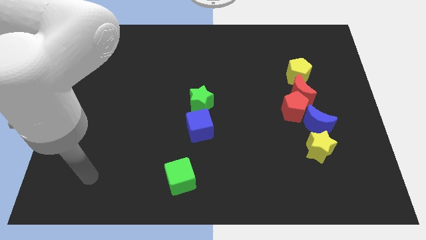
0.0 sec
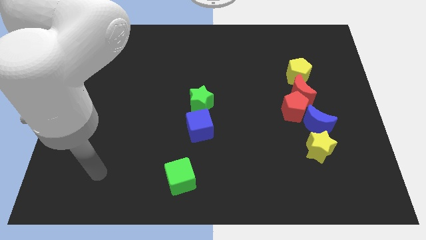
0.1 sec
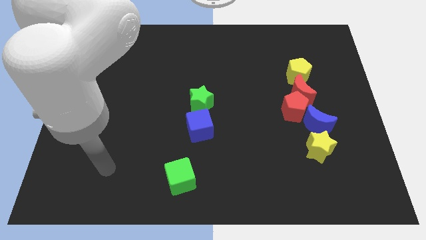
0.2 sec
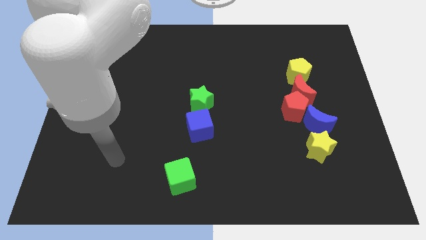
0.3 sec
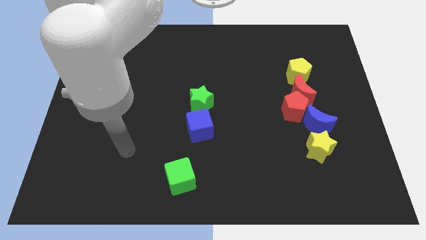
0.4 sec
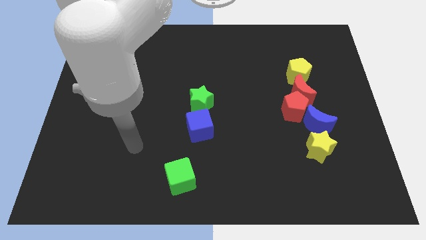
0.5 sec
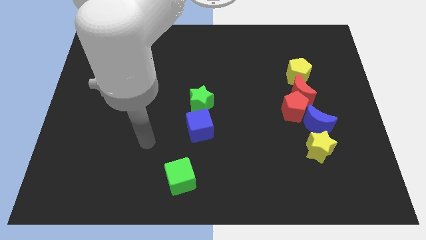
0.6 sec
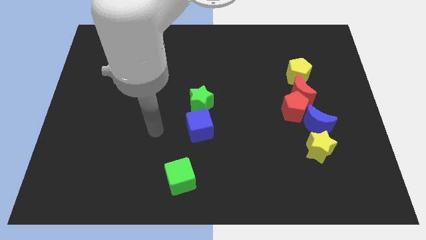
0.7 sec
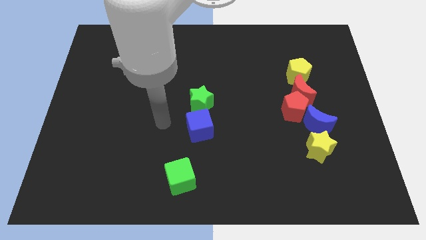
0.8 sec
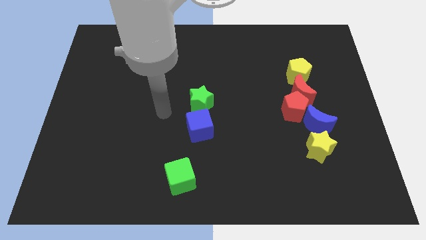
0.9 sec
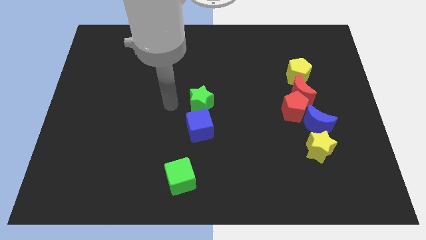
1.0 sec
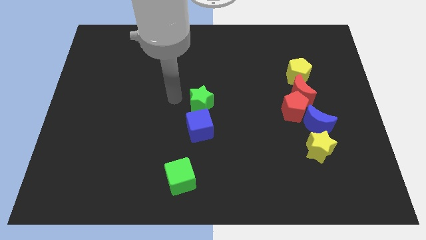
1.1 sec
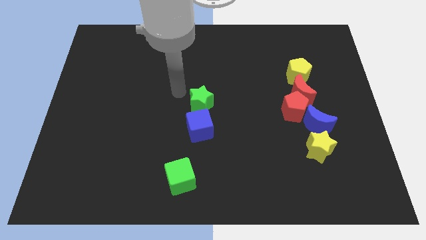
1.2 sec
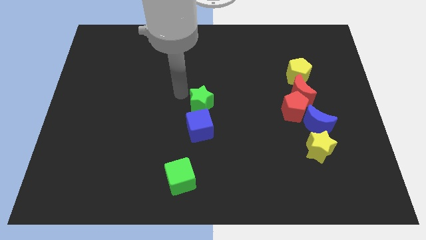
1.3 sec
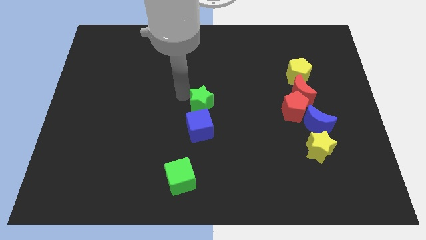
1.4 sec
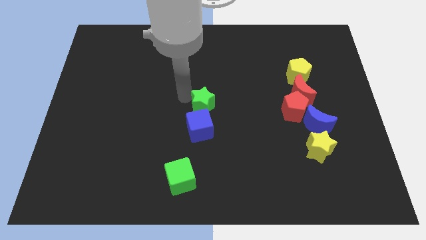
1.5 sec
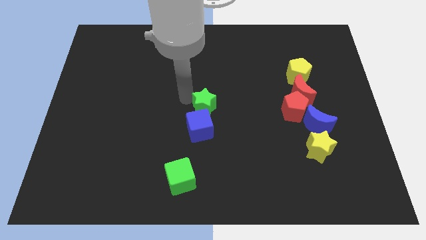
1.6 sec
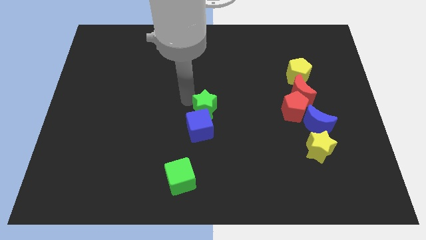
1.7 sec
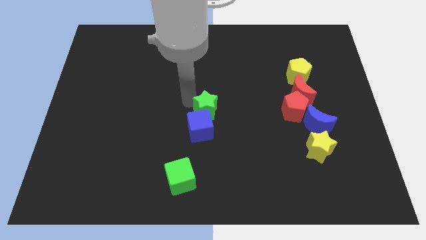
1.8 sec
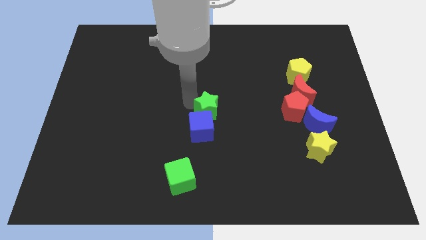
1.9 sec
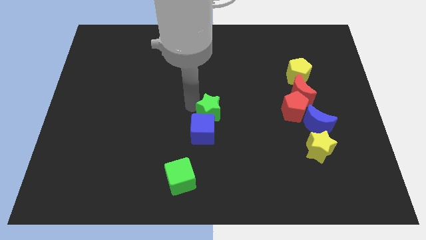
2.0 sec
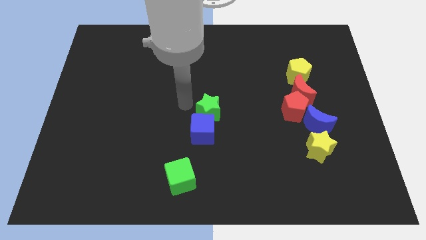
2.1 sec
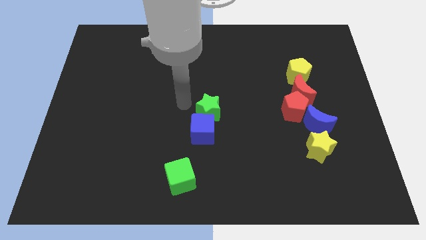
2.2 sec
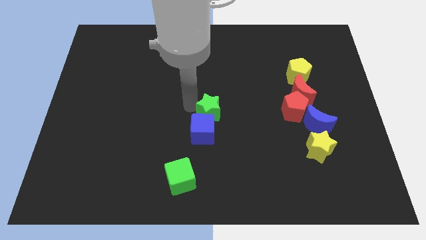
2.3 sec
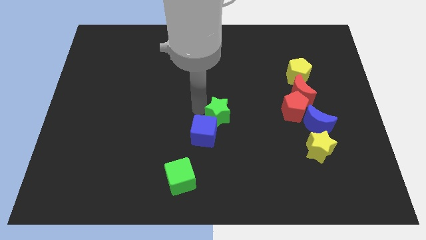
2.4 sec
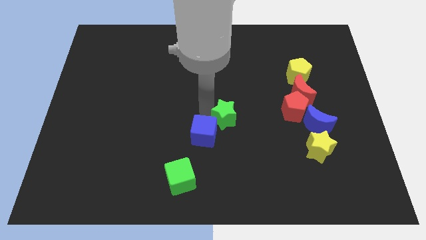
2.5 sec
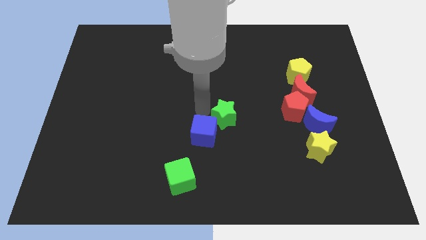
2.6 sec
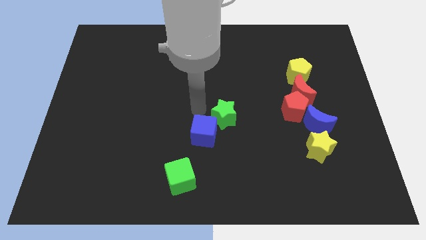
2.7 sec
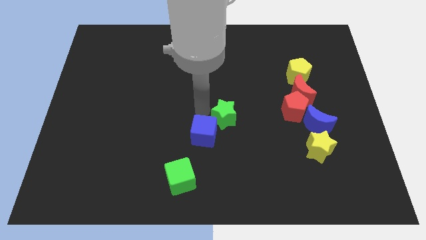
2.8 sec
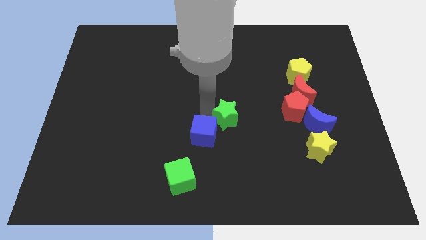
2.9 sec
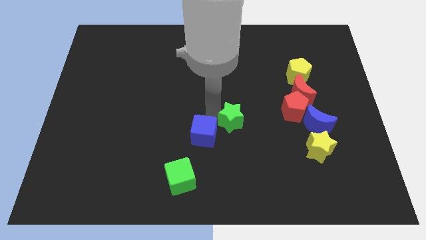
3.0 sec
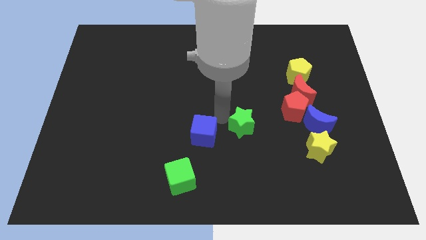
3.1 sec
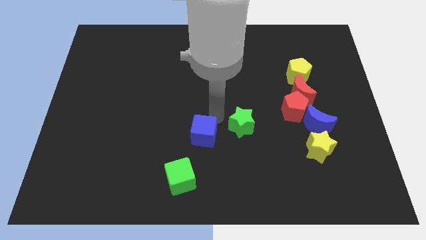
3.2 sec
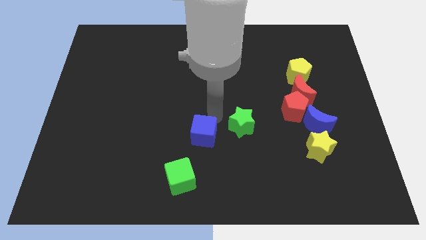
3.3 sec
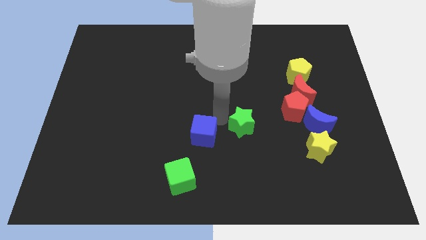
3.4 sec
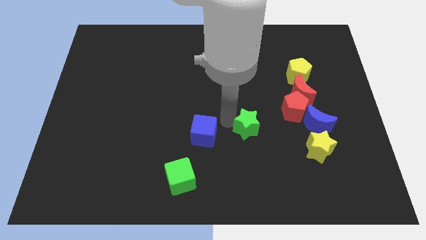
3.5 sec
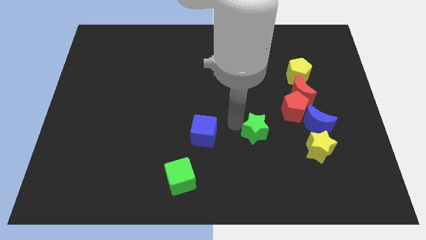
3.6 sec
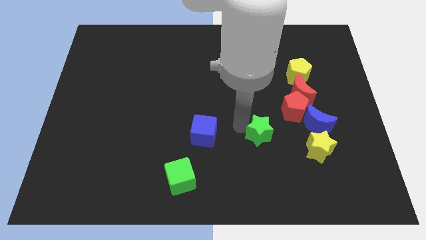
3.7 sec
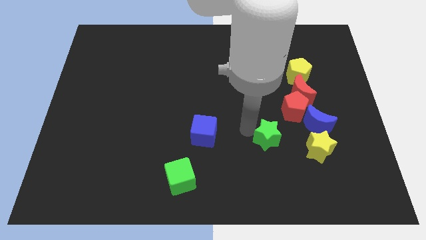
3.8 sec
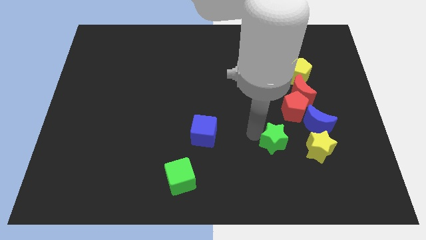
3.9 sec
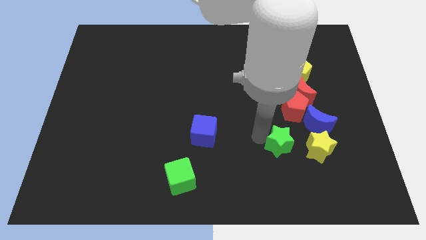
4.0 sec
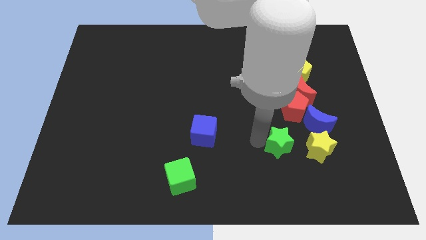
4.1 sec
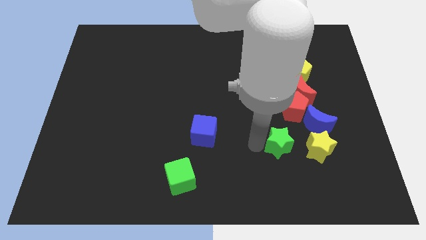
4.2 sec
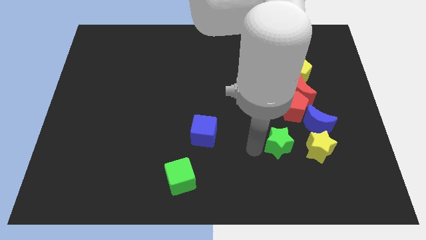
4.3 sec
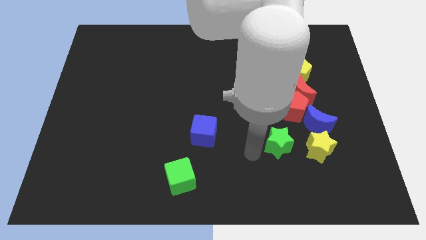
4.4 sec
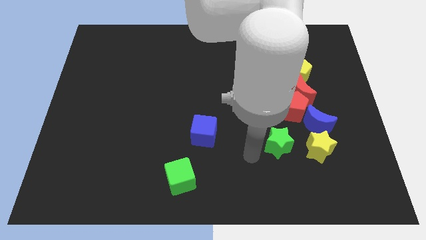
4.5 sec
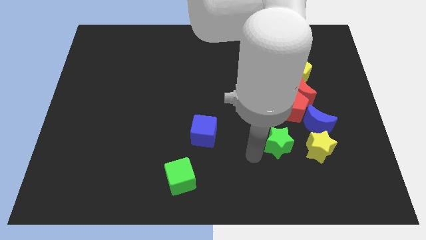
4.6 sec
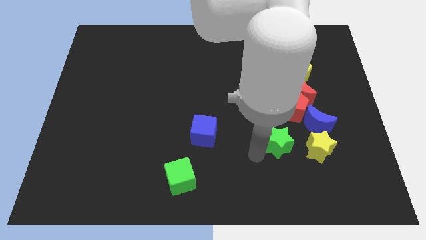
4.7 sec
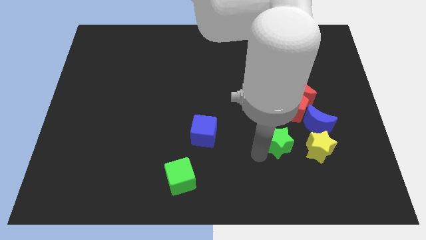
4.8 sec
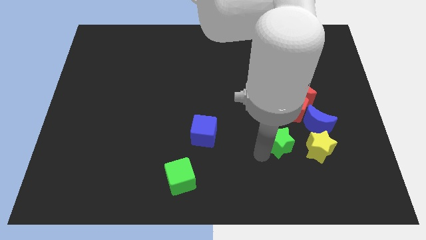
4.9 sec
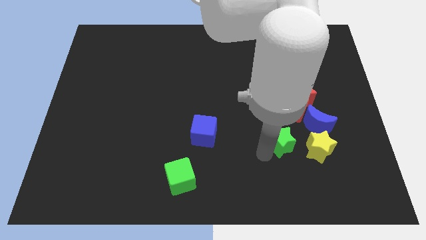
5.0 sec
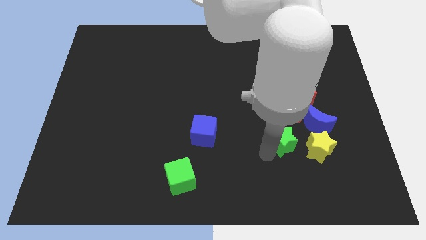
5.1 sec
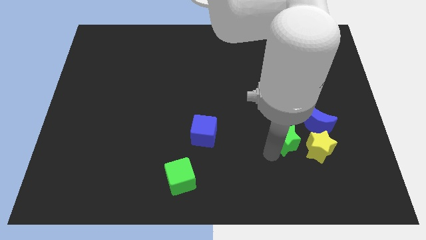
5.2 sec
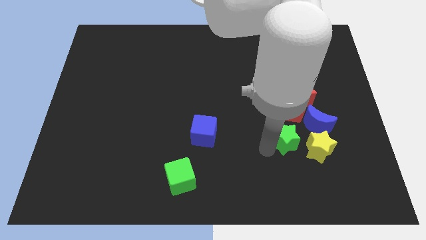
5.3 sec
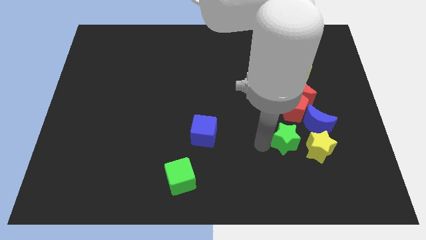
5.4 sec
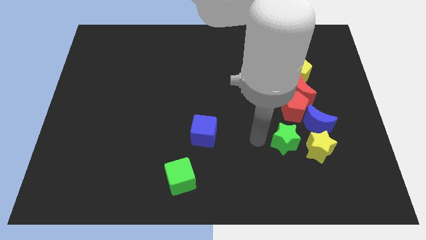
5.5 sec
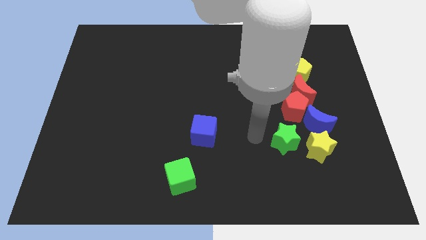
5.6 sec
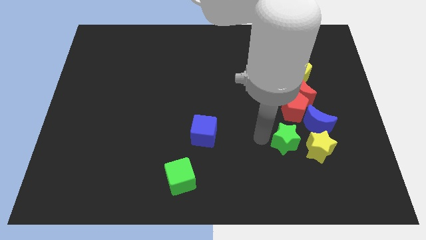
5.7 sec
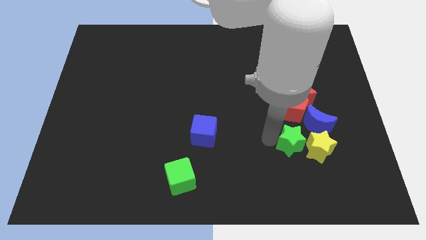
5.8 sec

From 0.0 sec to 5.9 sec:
put the green star to the yellow star

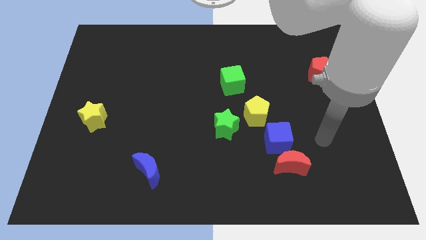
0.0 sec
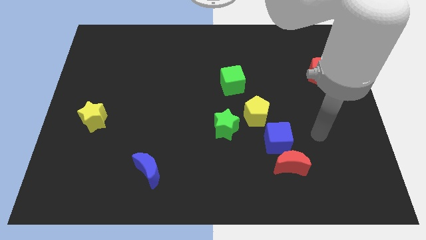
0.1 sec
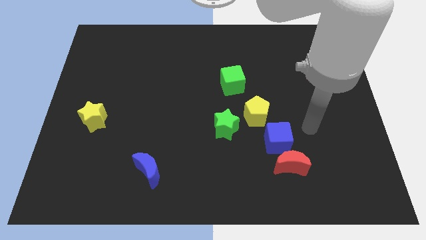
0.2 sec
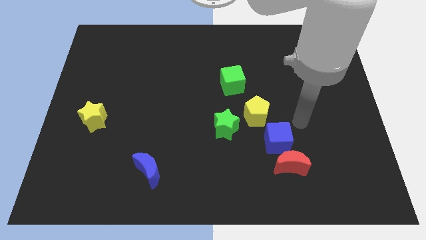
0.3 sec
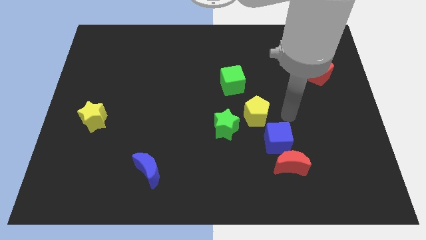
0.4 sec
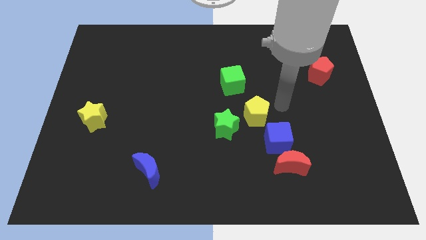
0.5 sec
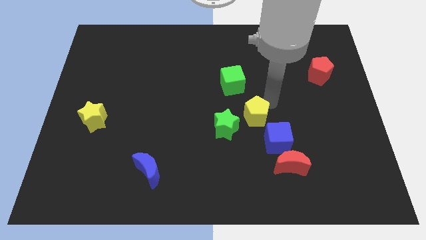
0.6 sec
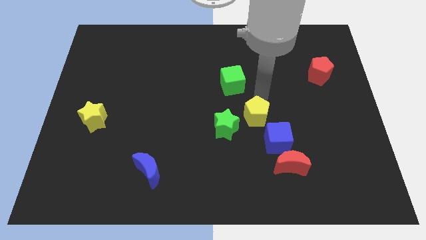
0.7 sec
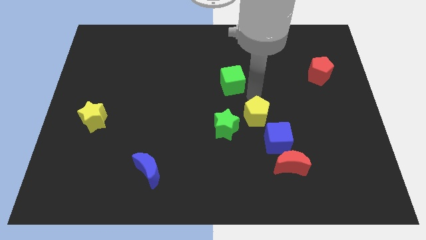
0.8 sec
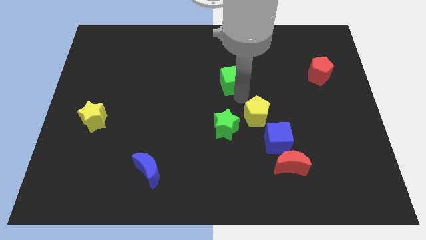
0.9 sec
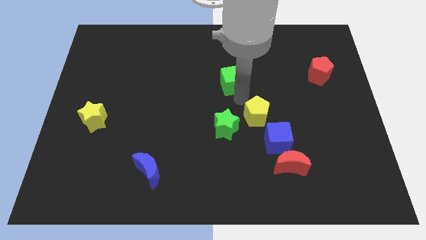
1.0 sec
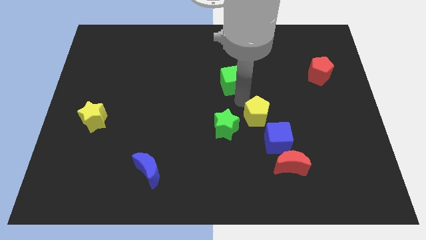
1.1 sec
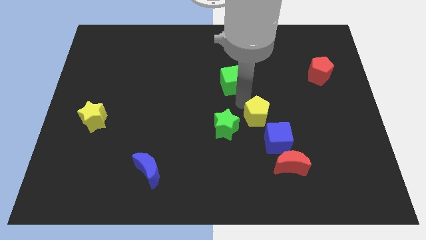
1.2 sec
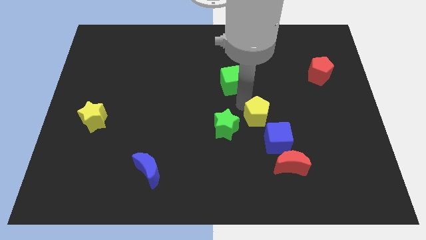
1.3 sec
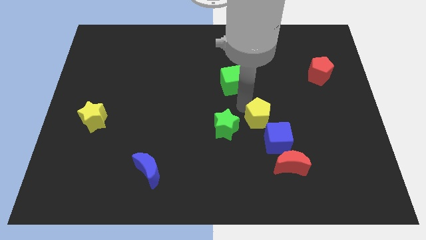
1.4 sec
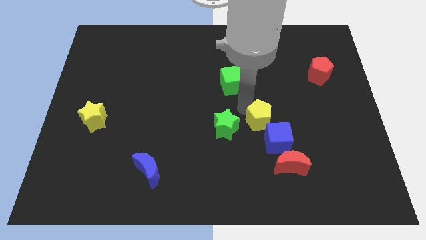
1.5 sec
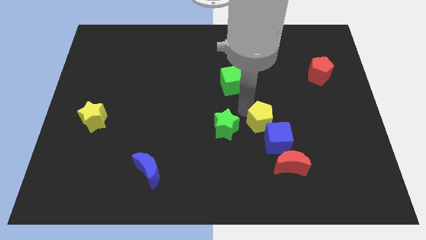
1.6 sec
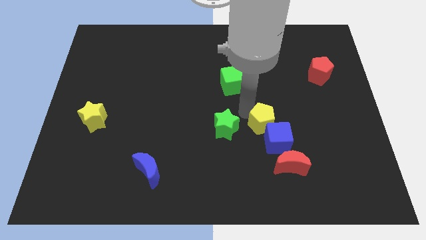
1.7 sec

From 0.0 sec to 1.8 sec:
move the yellow pentagon to the blue cube
